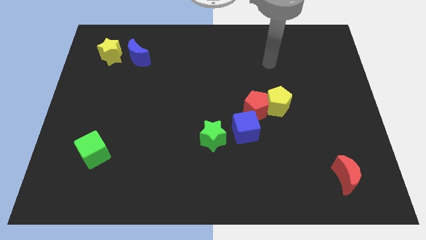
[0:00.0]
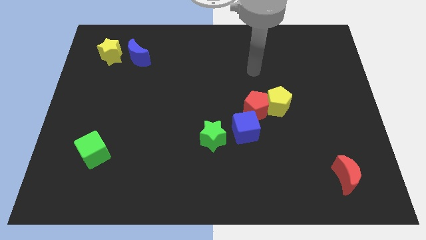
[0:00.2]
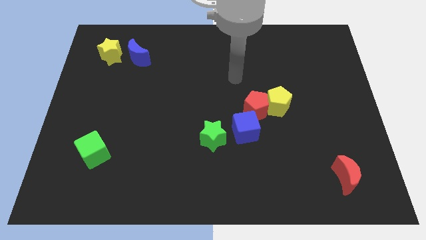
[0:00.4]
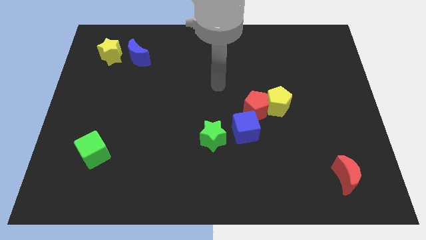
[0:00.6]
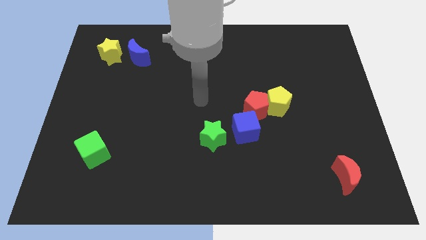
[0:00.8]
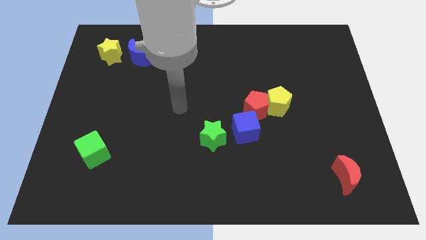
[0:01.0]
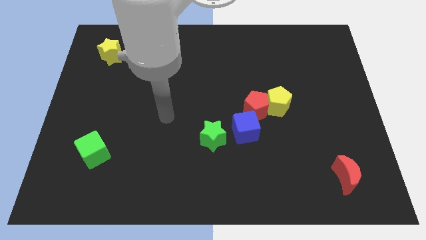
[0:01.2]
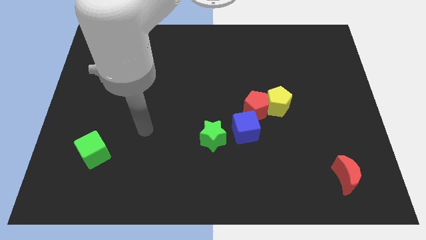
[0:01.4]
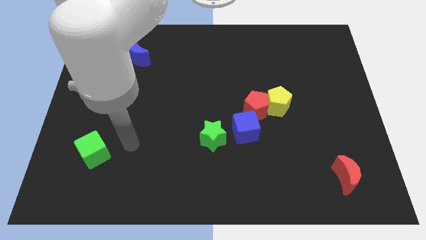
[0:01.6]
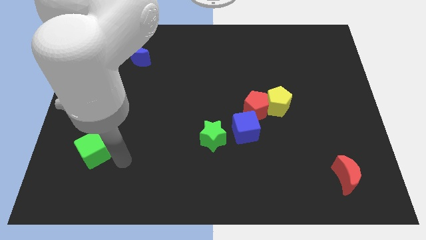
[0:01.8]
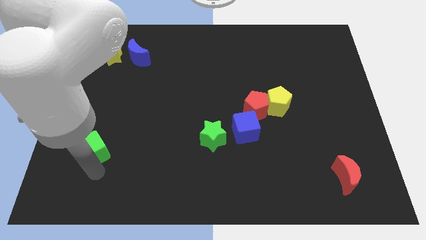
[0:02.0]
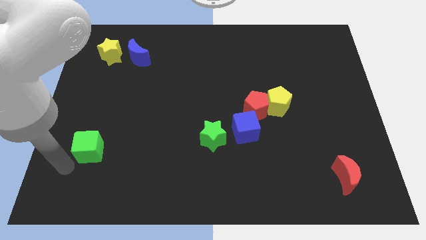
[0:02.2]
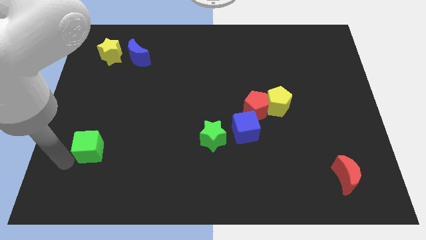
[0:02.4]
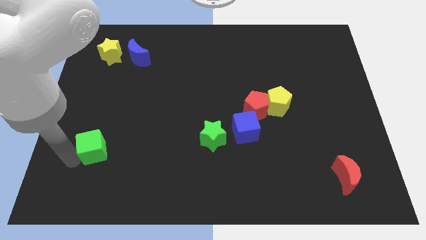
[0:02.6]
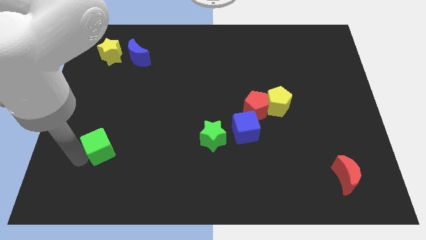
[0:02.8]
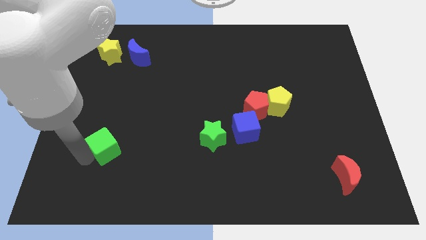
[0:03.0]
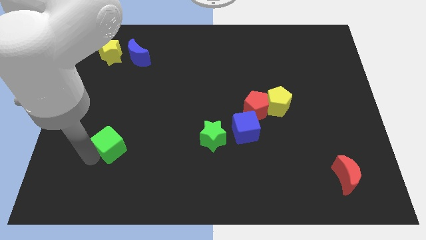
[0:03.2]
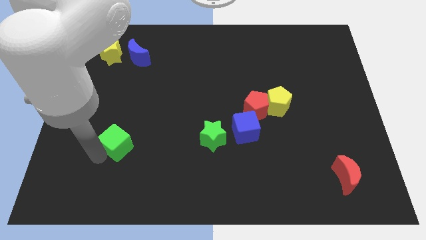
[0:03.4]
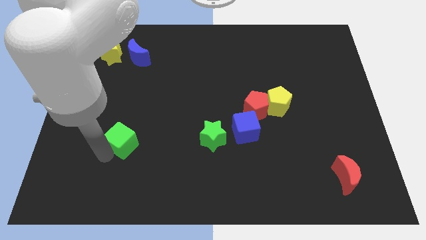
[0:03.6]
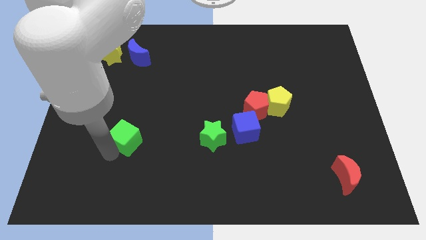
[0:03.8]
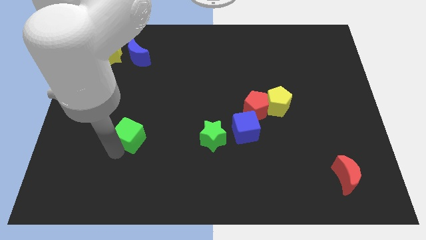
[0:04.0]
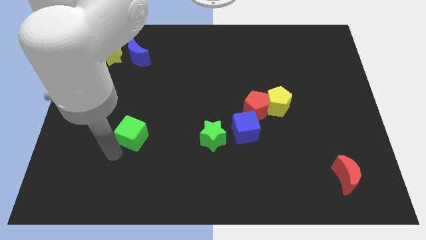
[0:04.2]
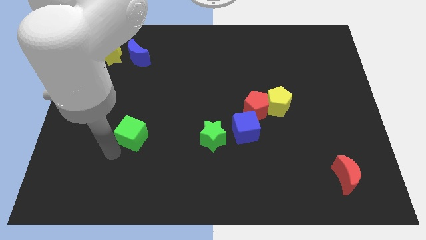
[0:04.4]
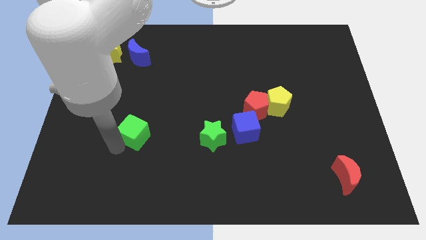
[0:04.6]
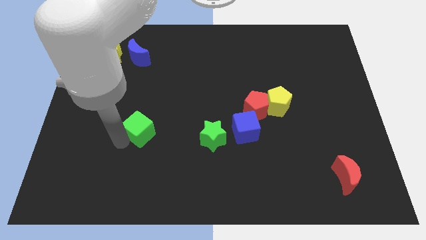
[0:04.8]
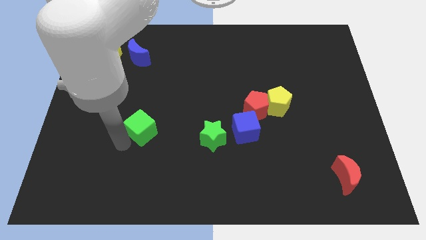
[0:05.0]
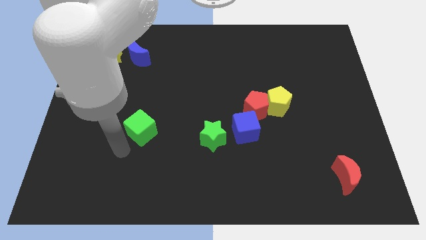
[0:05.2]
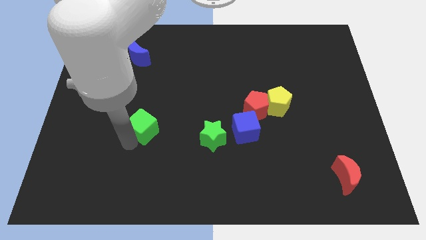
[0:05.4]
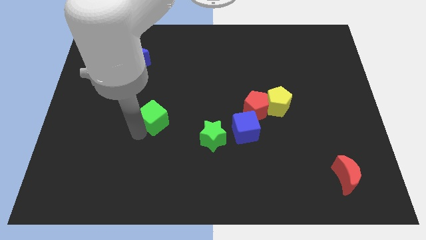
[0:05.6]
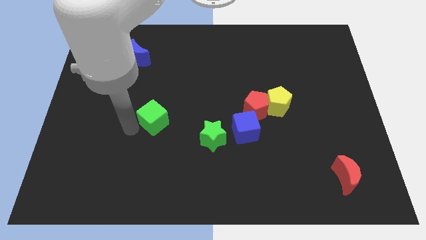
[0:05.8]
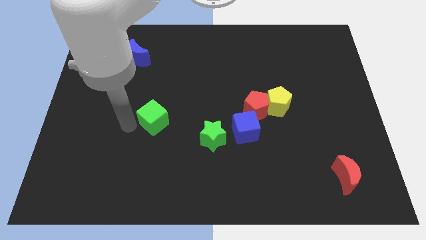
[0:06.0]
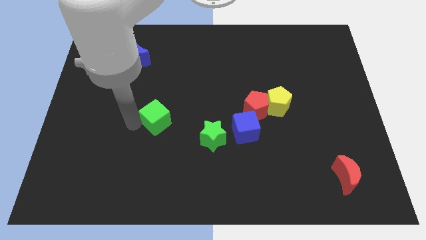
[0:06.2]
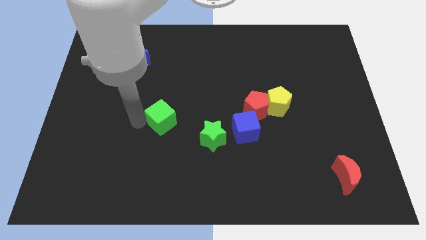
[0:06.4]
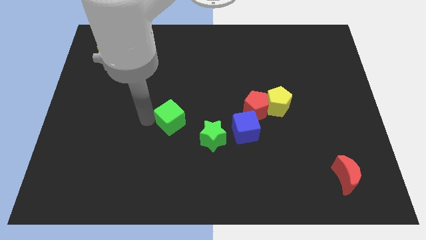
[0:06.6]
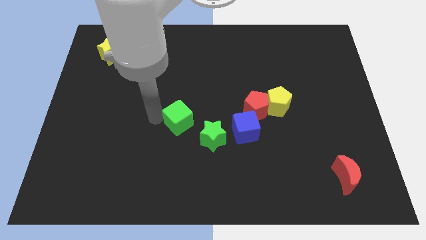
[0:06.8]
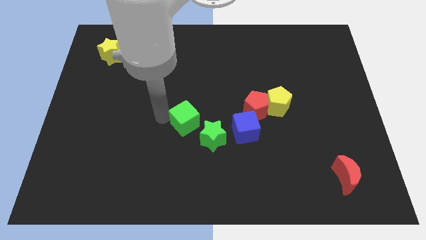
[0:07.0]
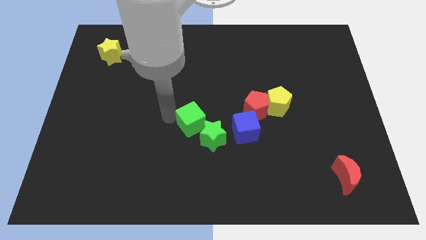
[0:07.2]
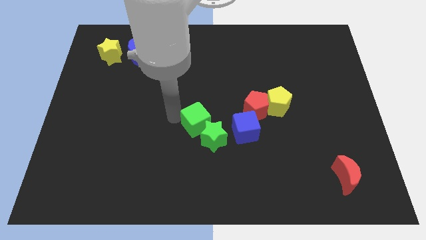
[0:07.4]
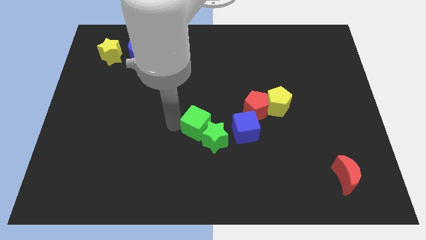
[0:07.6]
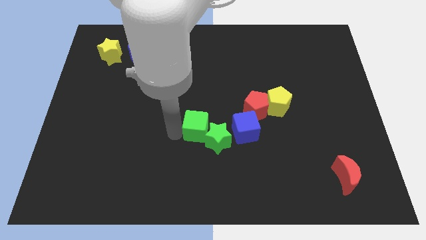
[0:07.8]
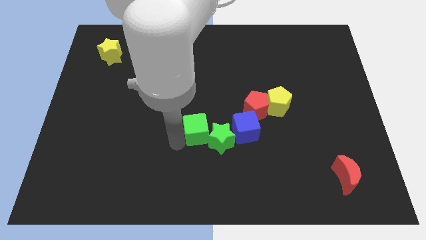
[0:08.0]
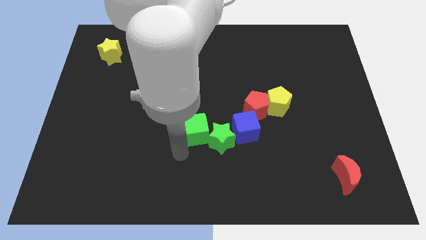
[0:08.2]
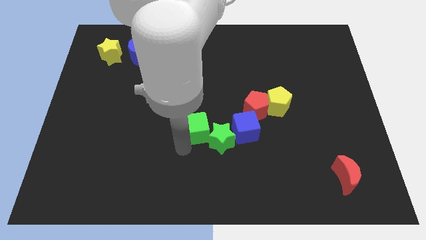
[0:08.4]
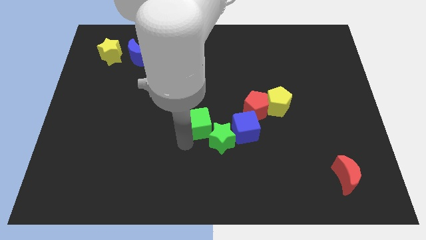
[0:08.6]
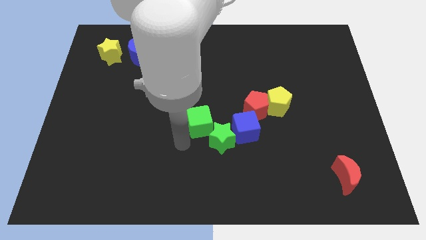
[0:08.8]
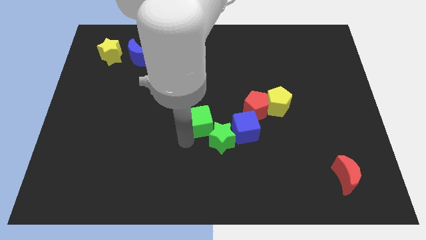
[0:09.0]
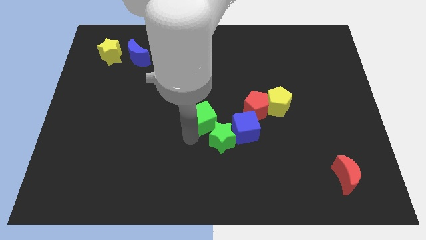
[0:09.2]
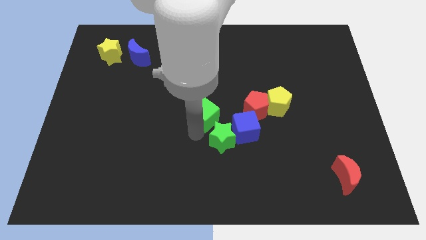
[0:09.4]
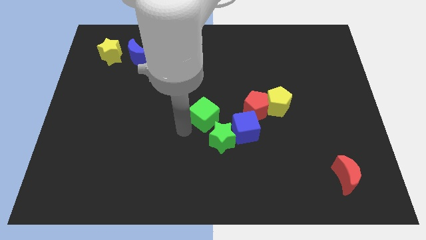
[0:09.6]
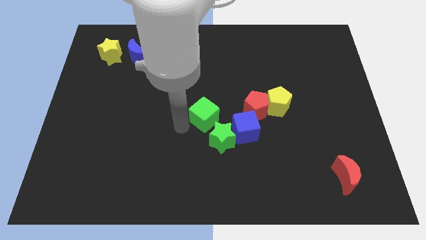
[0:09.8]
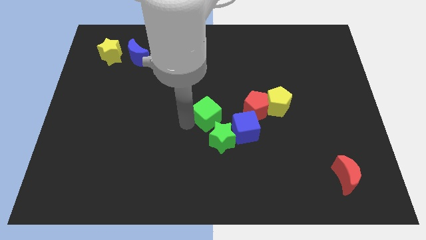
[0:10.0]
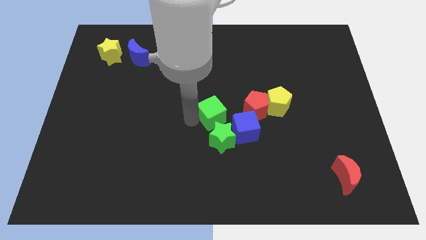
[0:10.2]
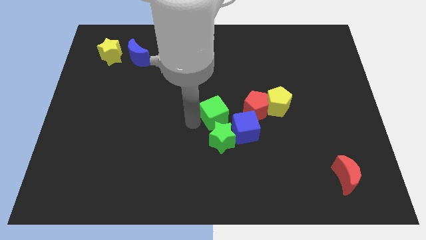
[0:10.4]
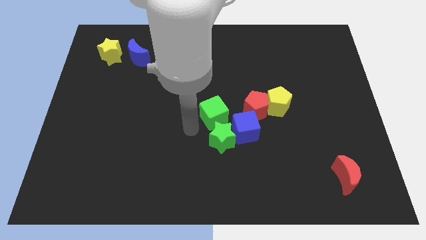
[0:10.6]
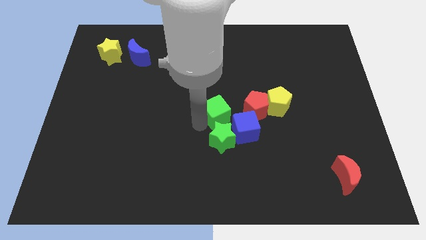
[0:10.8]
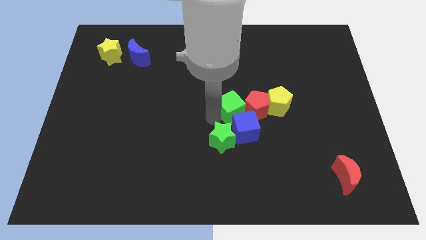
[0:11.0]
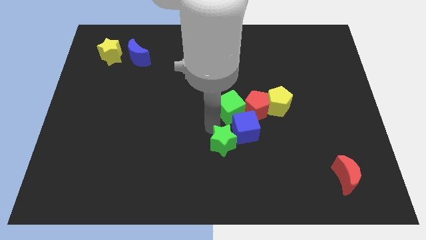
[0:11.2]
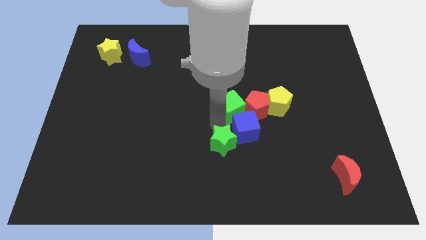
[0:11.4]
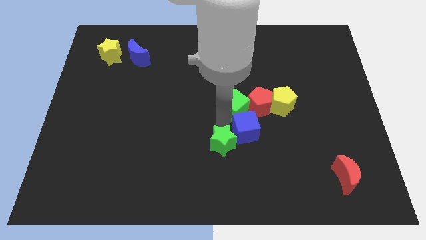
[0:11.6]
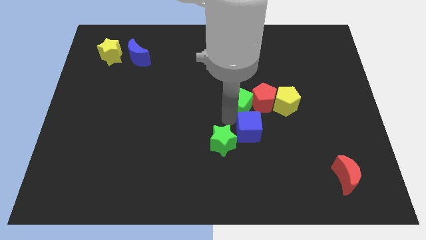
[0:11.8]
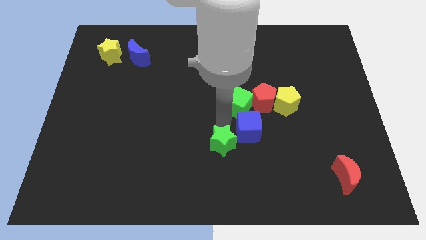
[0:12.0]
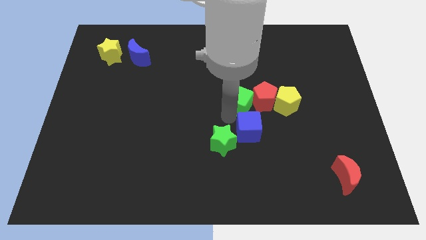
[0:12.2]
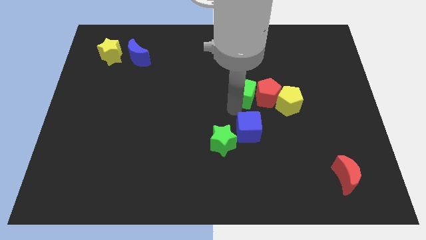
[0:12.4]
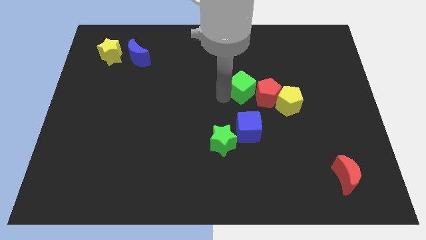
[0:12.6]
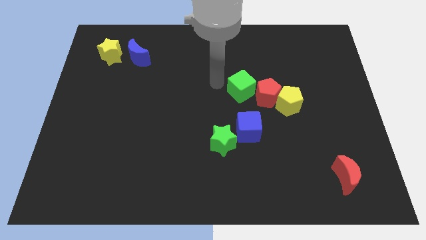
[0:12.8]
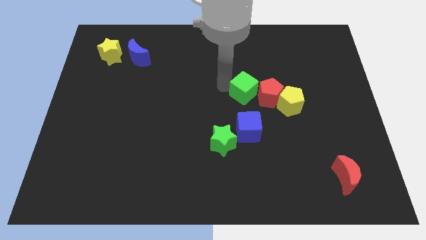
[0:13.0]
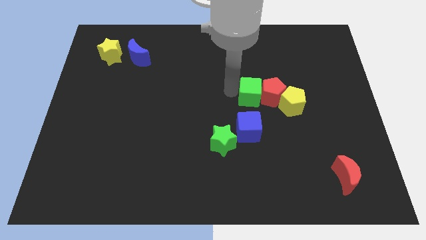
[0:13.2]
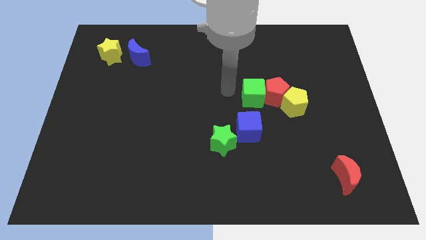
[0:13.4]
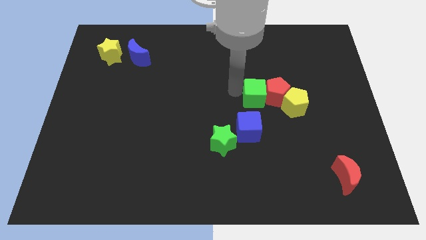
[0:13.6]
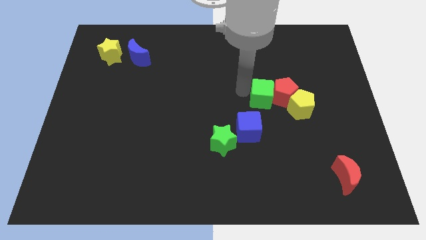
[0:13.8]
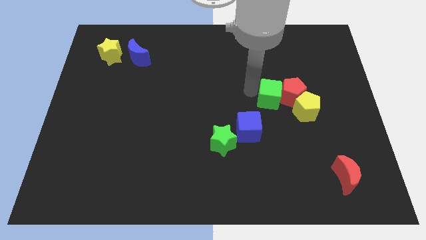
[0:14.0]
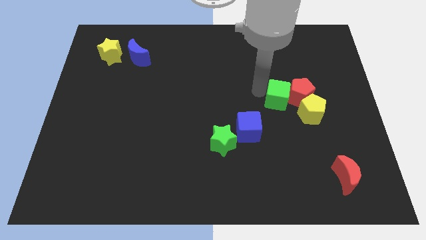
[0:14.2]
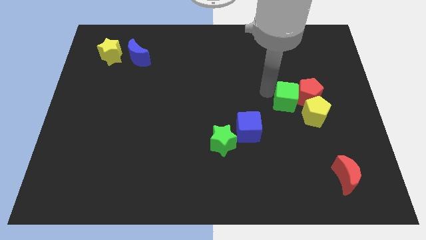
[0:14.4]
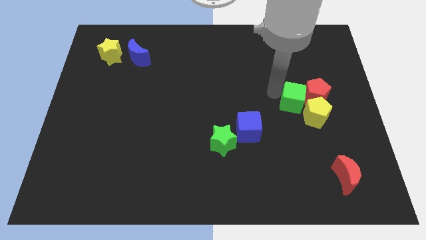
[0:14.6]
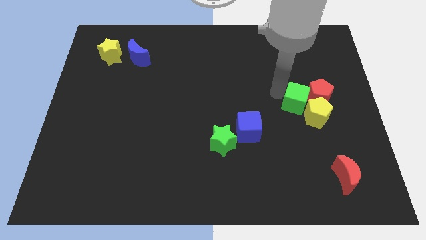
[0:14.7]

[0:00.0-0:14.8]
put the green cube next to the yellow pentagon
